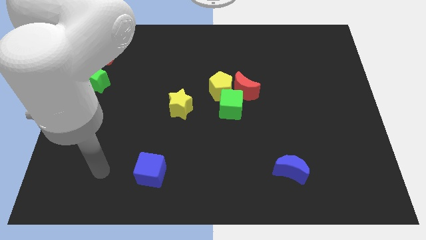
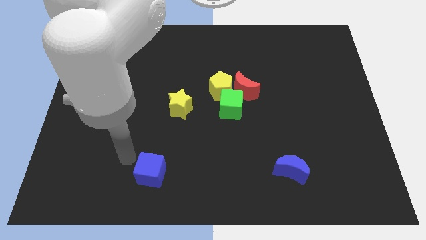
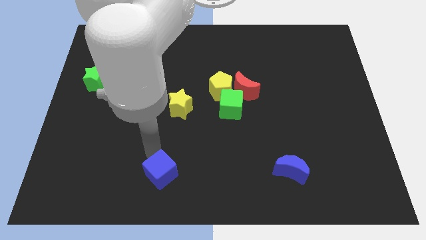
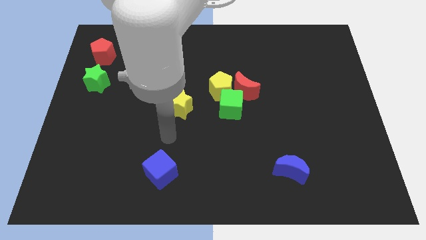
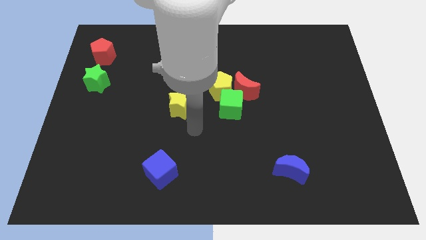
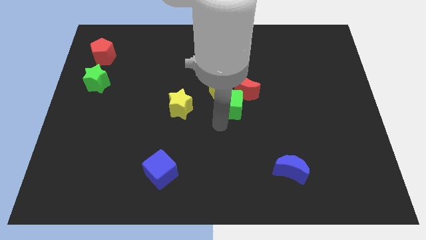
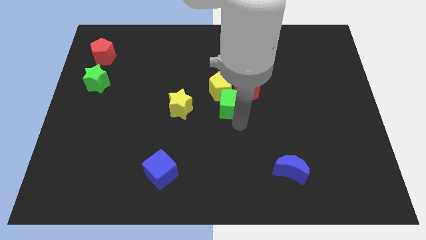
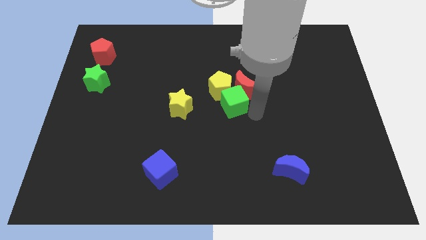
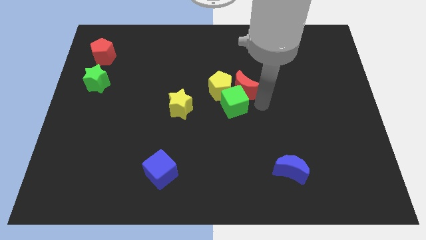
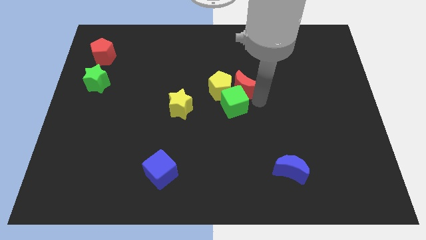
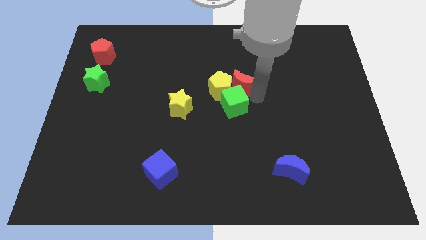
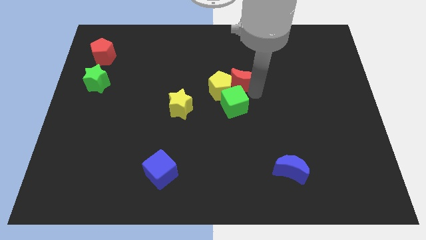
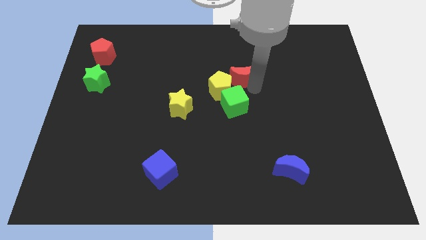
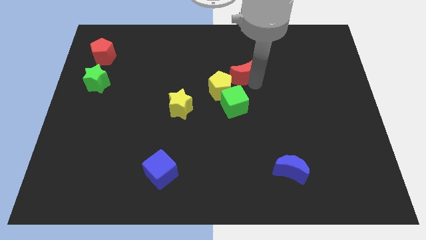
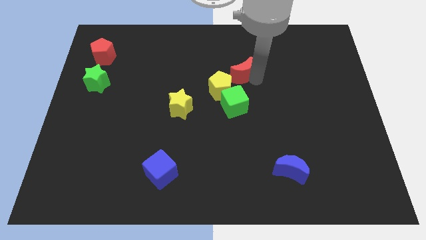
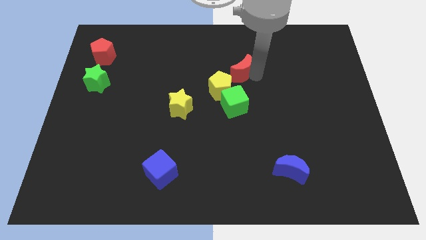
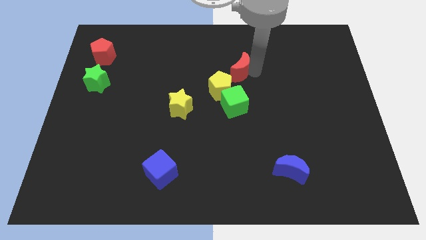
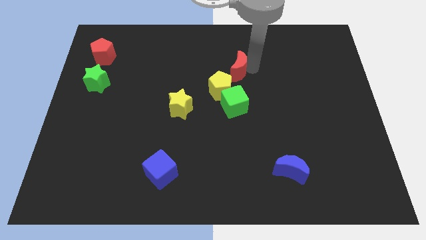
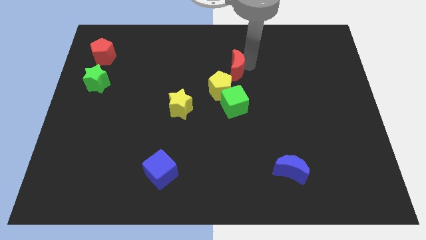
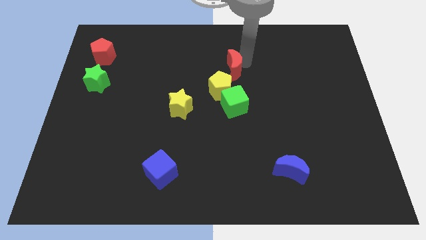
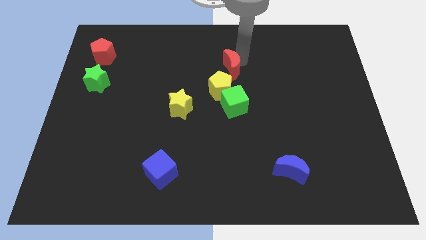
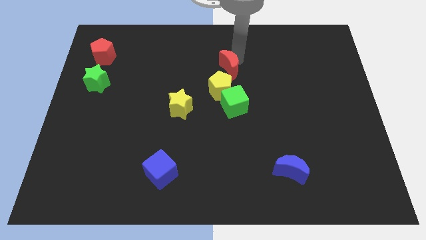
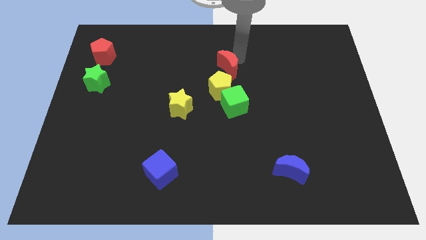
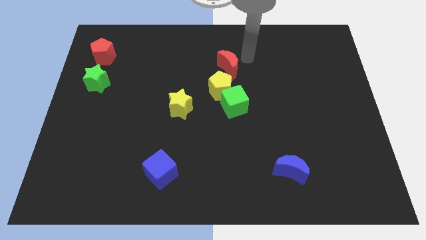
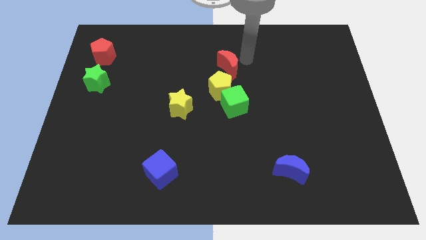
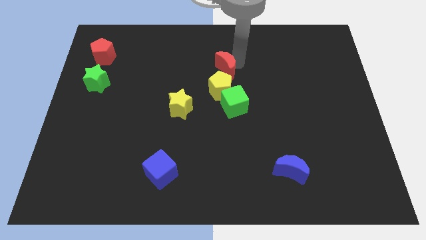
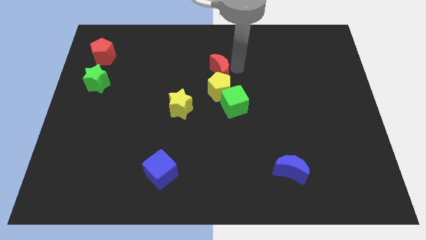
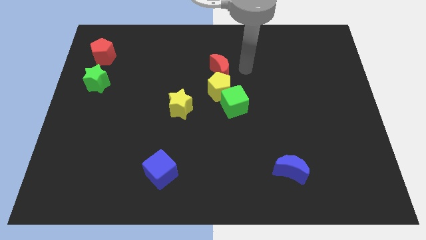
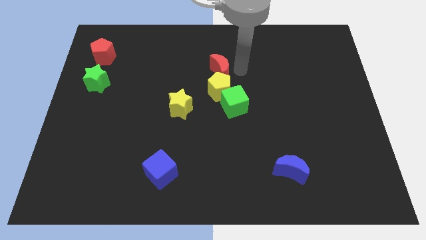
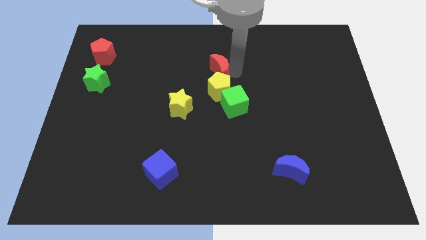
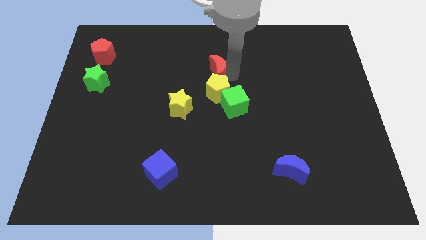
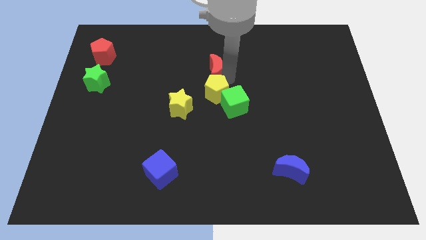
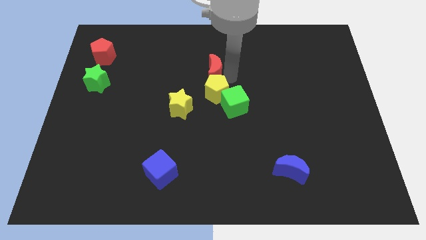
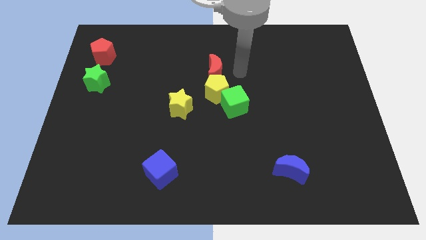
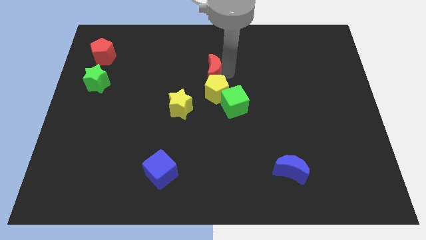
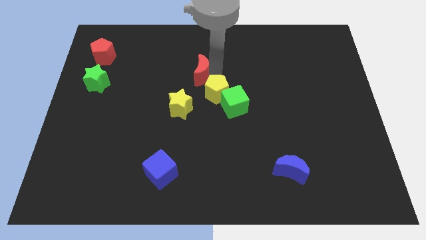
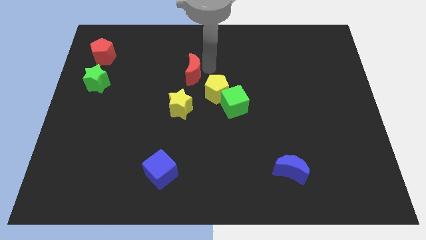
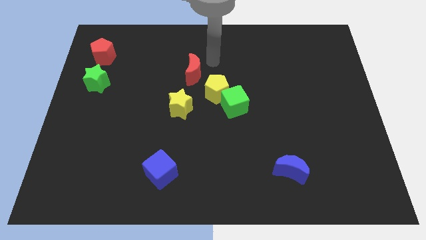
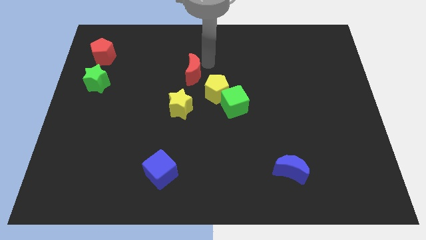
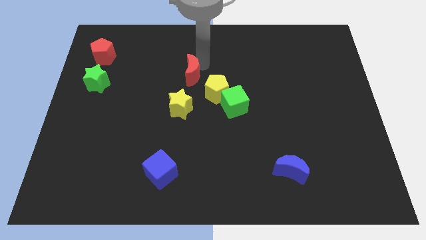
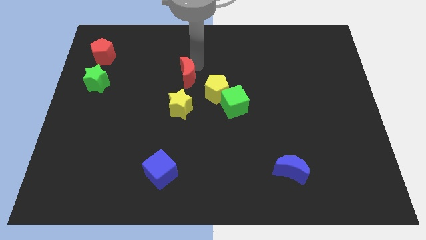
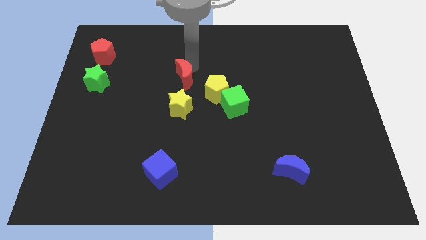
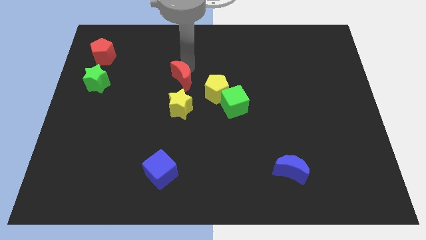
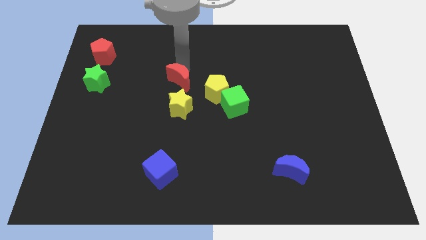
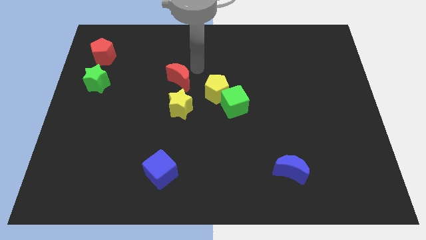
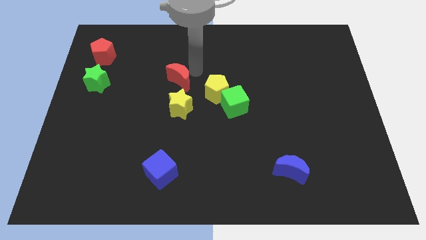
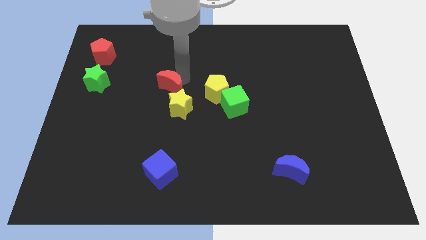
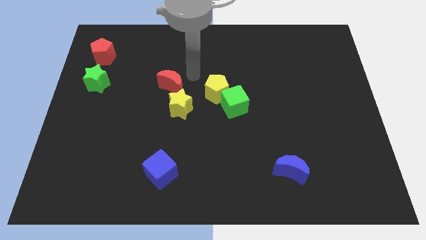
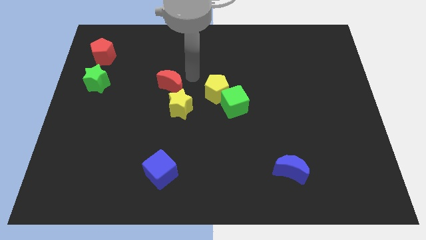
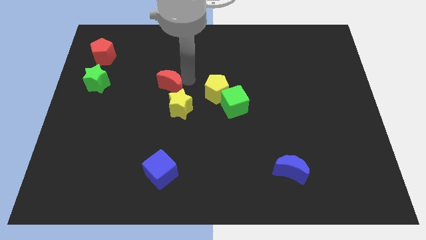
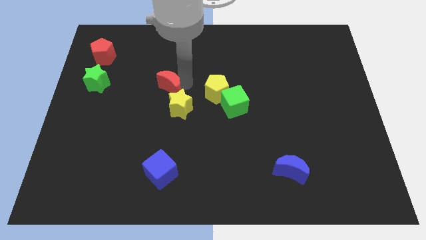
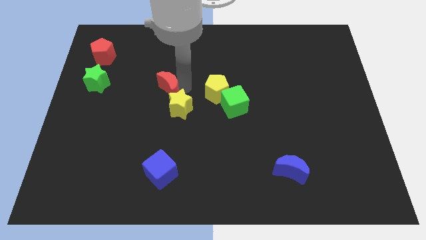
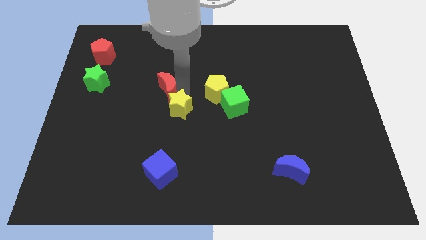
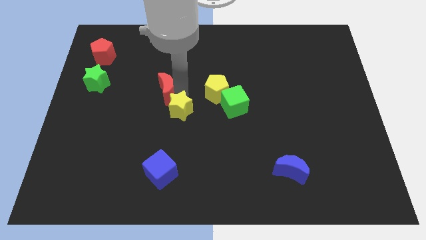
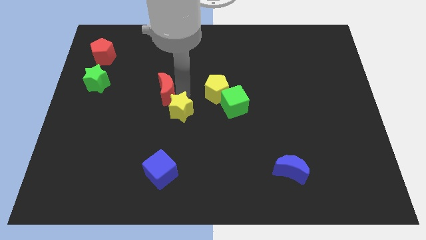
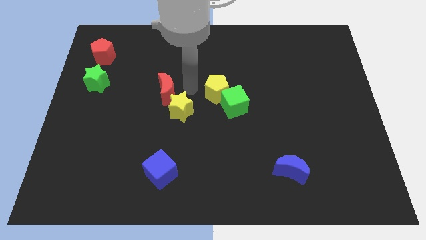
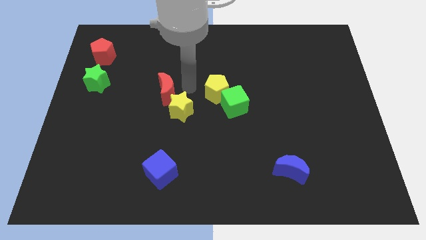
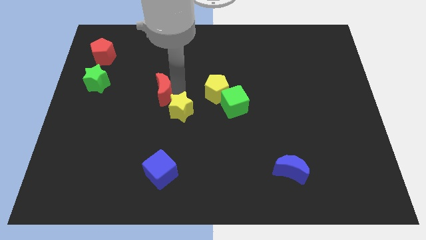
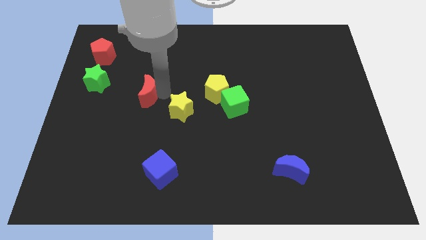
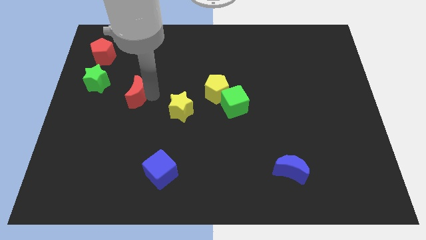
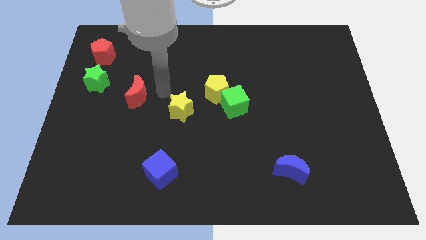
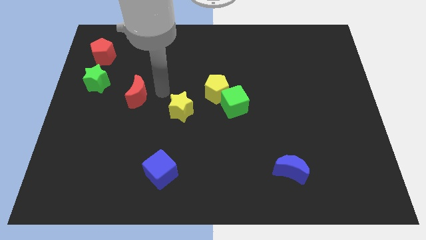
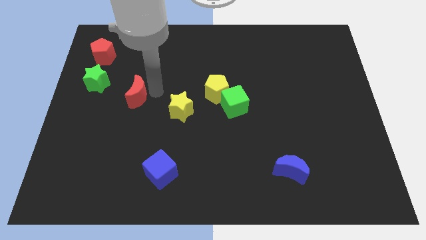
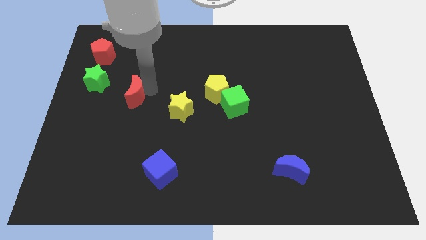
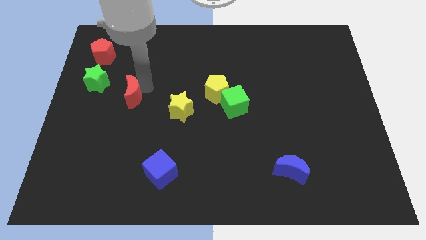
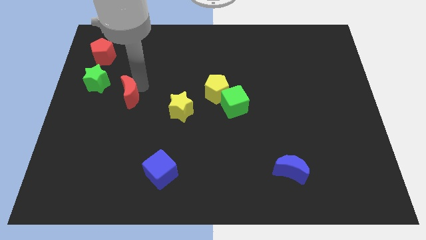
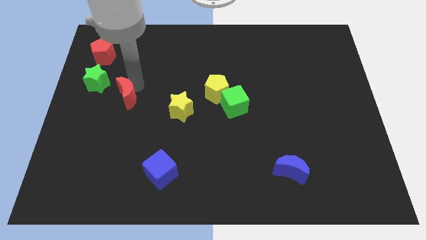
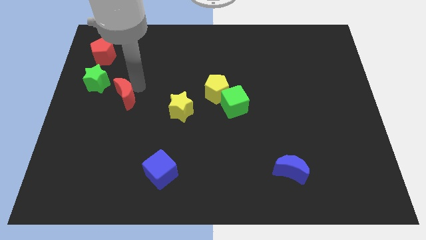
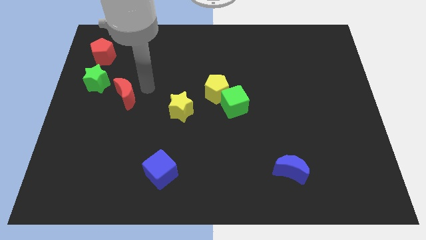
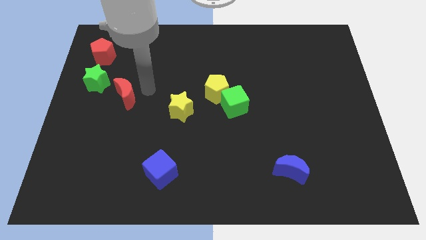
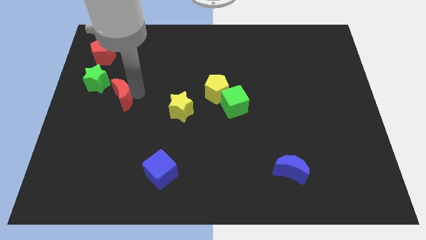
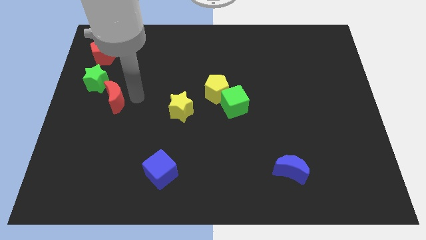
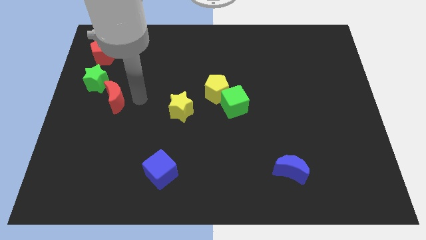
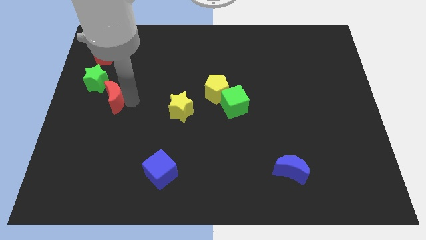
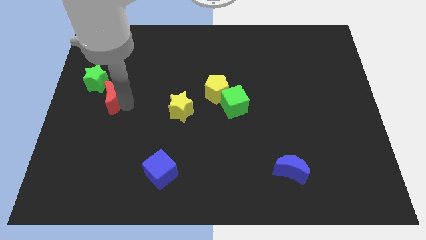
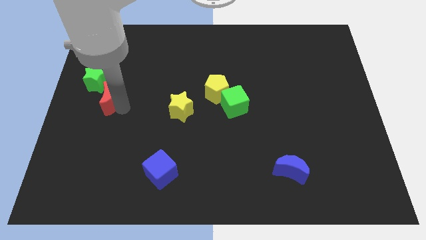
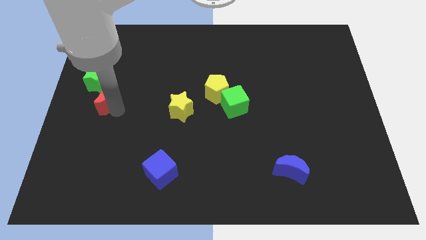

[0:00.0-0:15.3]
put the red moon to the center left

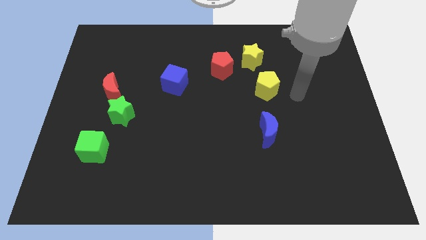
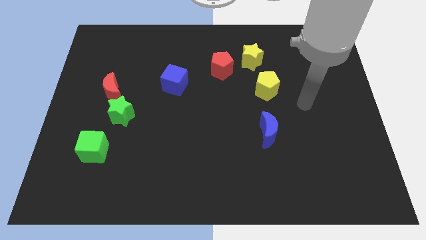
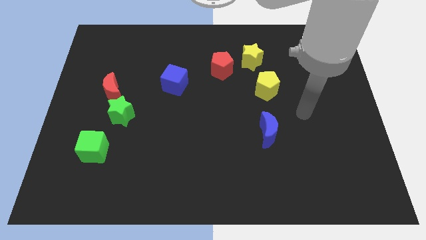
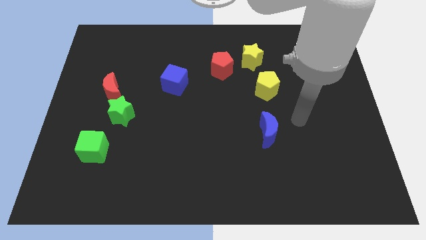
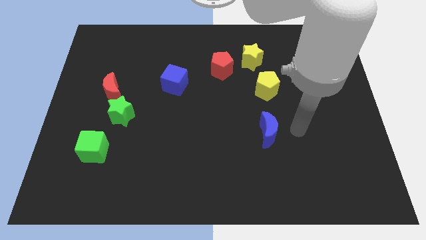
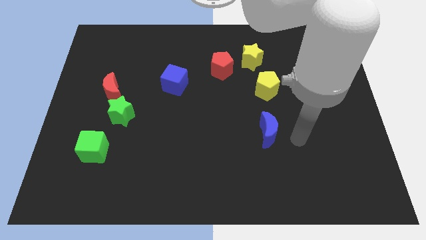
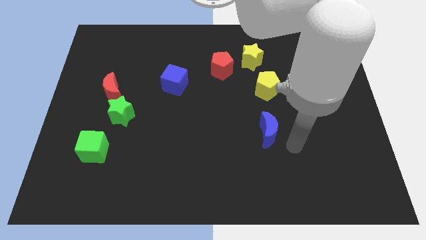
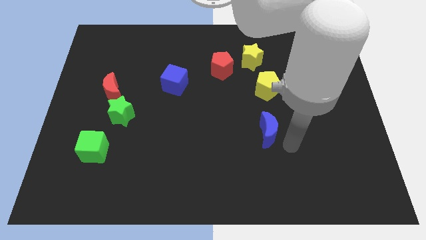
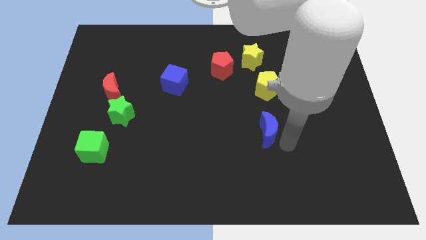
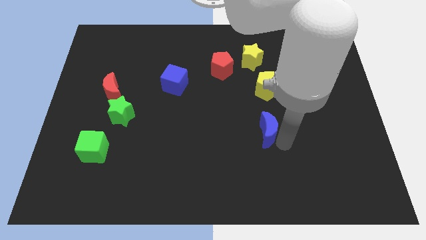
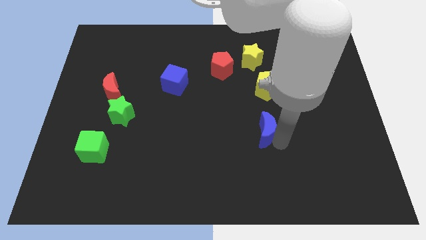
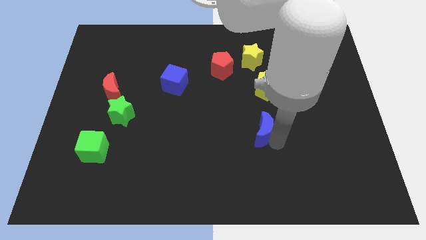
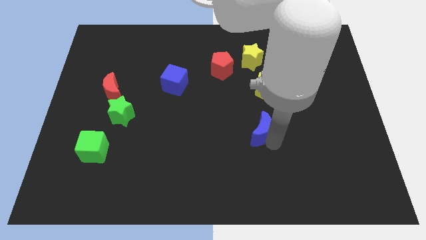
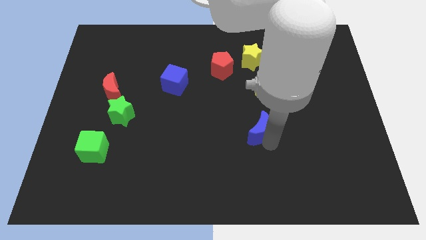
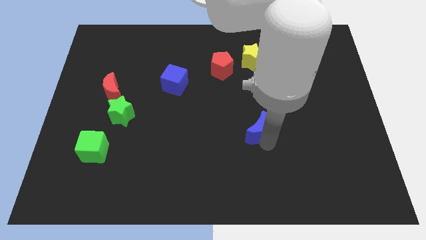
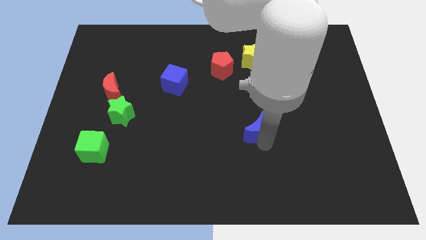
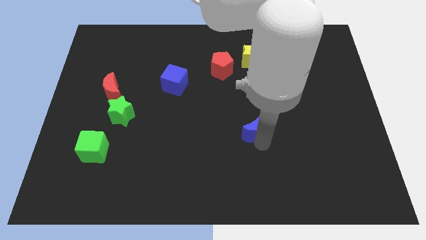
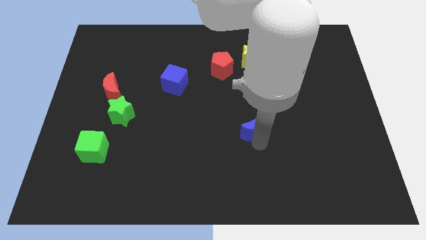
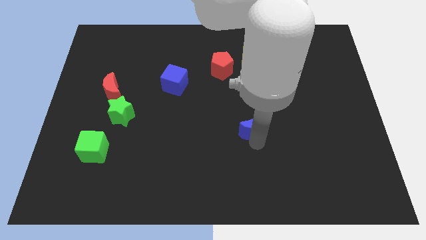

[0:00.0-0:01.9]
slide the blue moon to the middle
